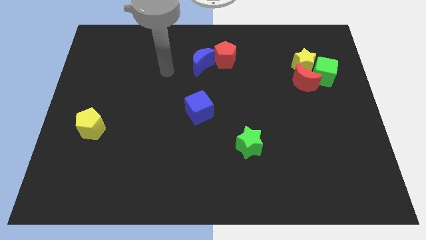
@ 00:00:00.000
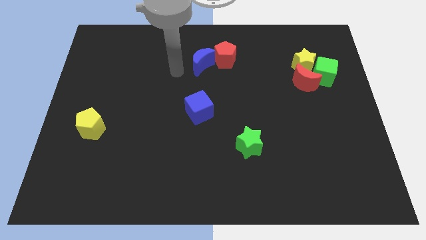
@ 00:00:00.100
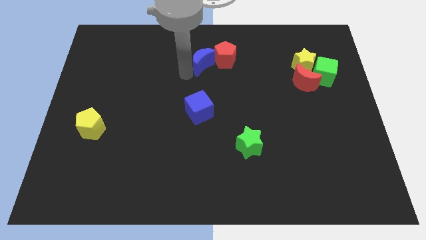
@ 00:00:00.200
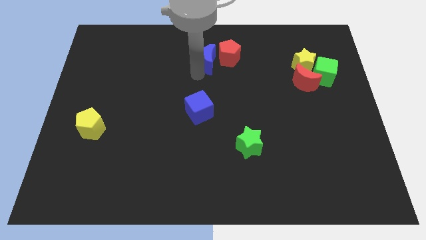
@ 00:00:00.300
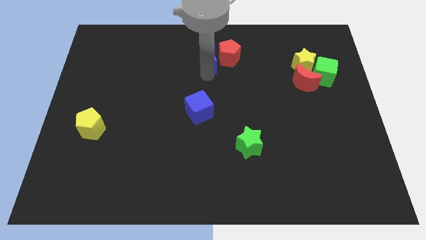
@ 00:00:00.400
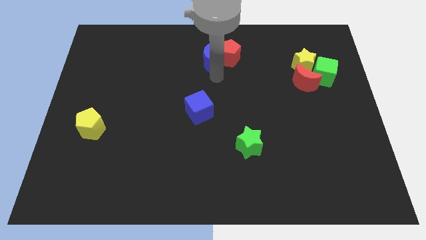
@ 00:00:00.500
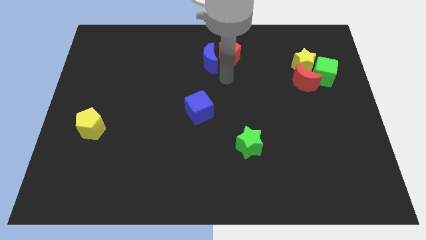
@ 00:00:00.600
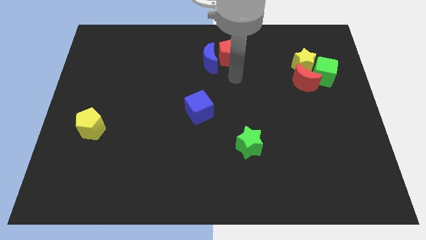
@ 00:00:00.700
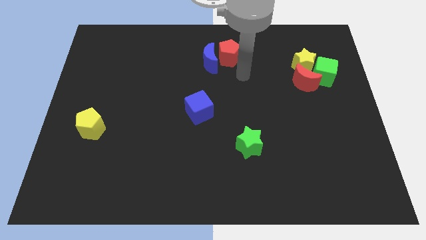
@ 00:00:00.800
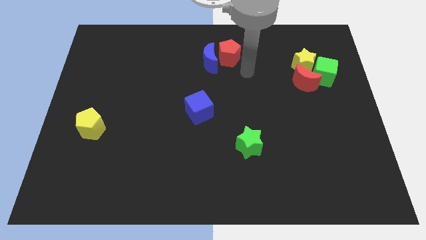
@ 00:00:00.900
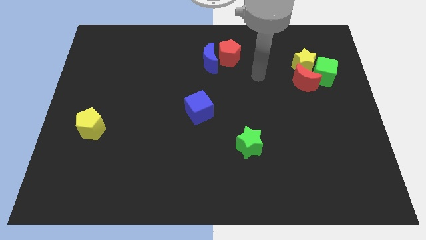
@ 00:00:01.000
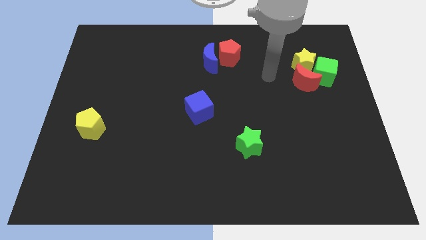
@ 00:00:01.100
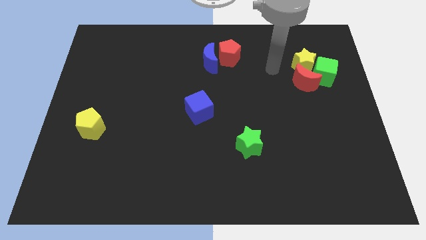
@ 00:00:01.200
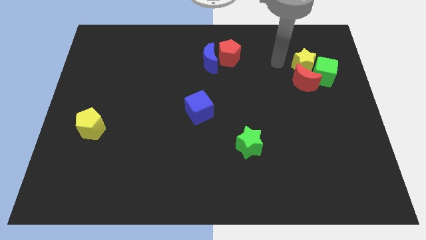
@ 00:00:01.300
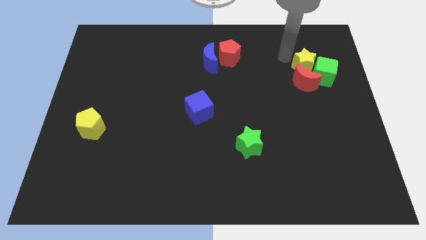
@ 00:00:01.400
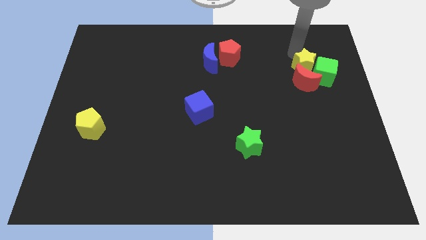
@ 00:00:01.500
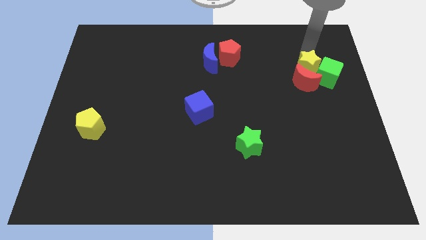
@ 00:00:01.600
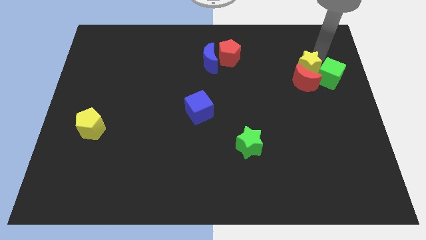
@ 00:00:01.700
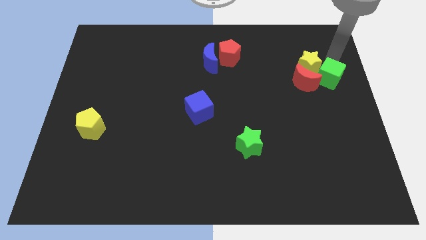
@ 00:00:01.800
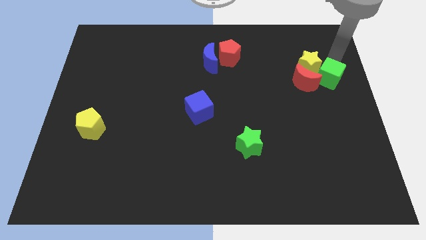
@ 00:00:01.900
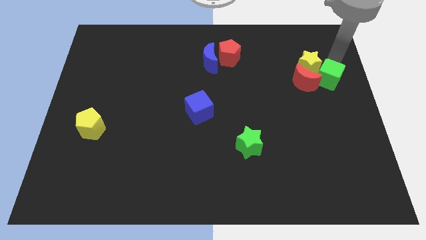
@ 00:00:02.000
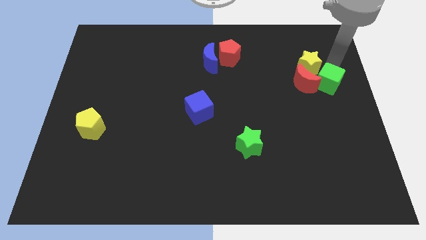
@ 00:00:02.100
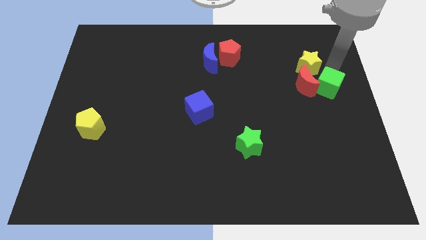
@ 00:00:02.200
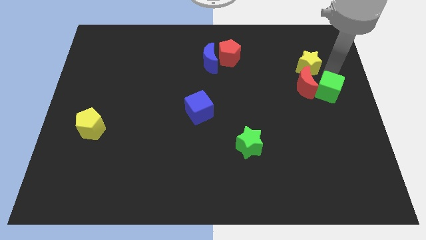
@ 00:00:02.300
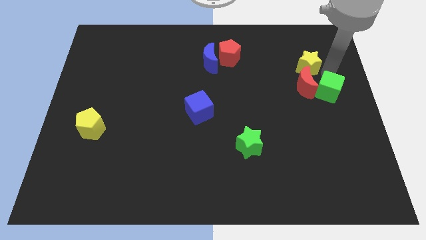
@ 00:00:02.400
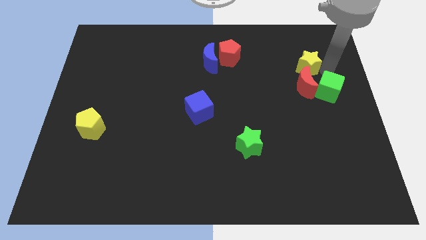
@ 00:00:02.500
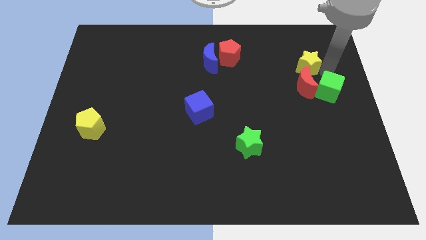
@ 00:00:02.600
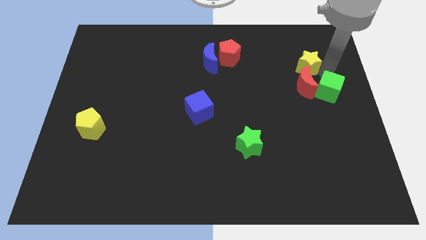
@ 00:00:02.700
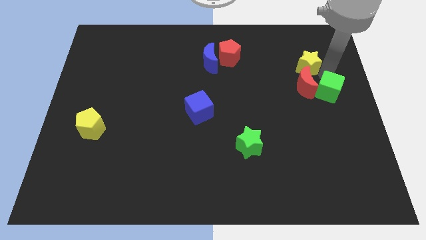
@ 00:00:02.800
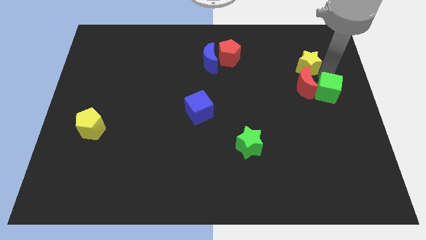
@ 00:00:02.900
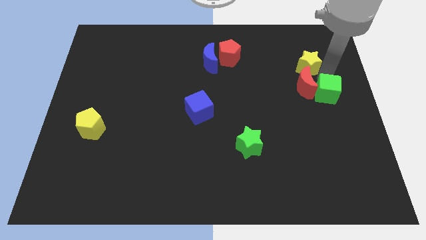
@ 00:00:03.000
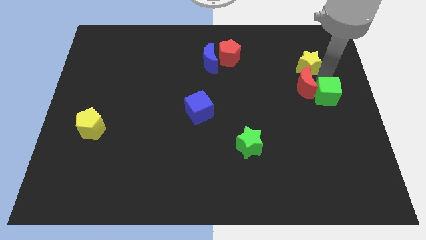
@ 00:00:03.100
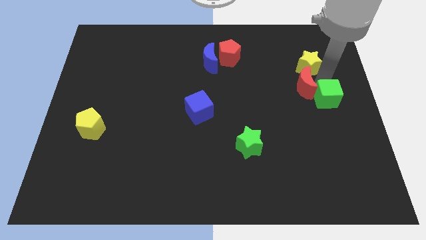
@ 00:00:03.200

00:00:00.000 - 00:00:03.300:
slightly move the green cube down

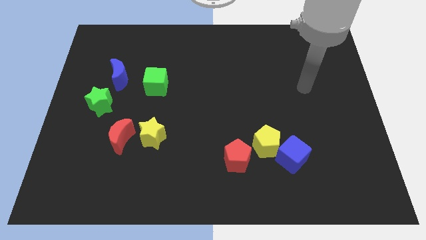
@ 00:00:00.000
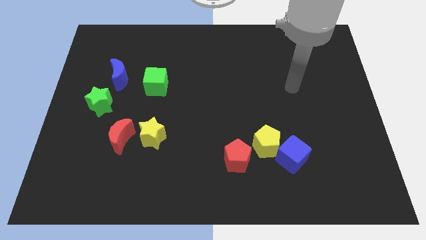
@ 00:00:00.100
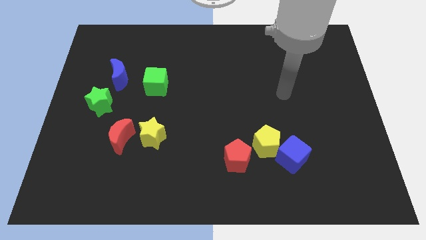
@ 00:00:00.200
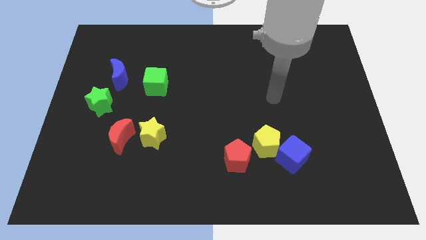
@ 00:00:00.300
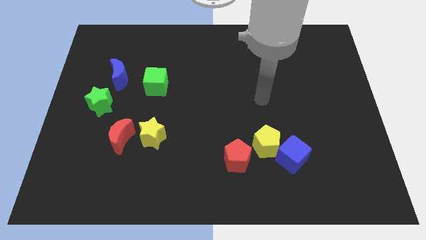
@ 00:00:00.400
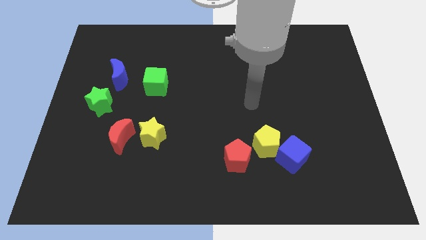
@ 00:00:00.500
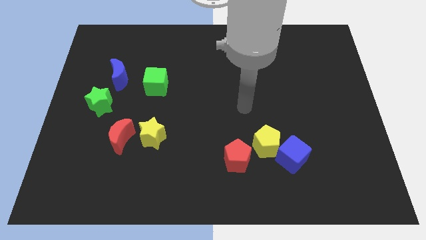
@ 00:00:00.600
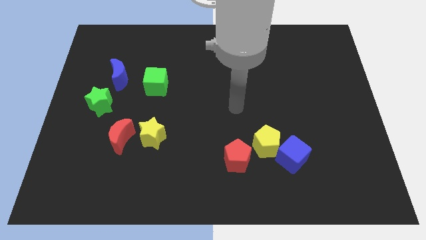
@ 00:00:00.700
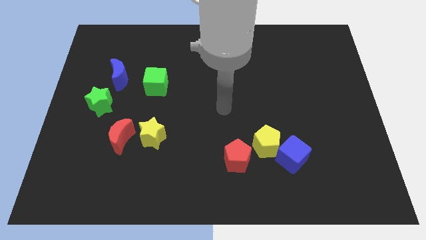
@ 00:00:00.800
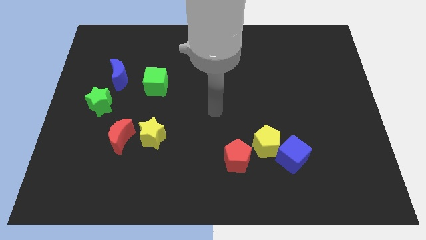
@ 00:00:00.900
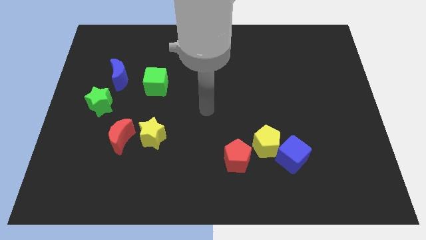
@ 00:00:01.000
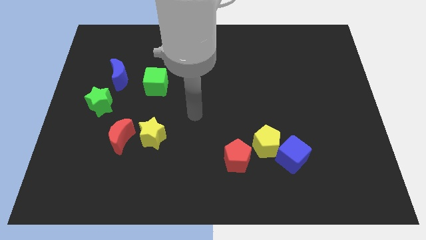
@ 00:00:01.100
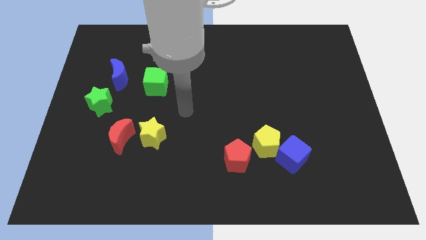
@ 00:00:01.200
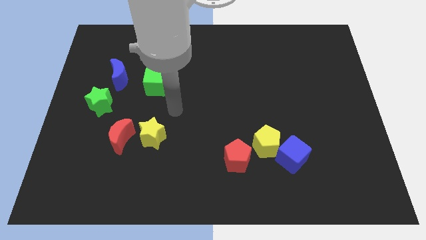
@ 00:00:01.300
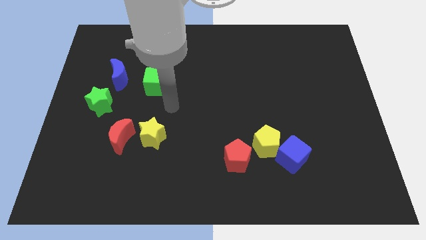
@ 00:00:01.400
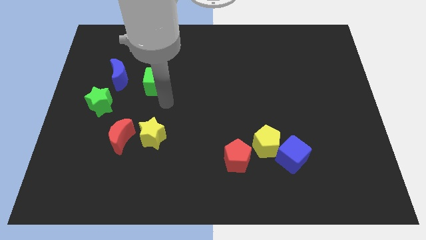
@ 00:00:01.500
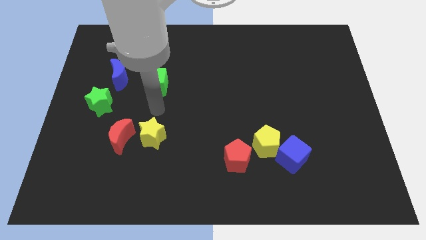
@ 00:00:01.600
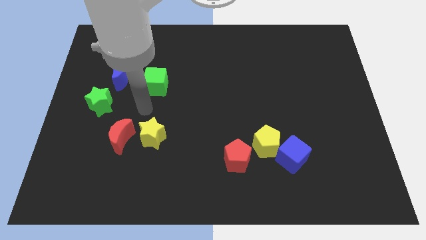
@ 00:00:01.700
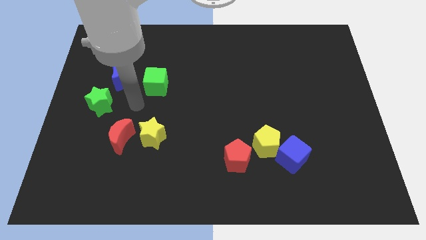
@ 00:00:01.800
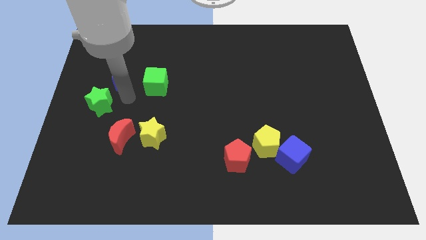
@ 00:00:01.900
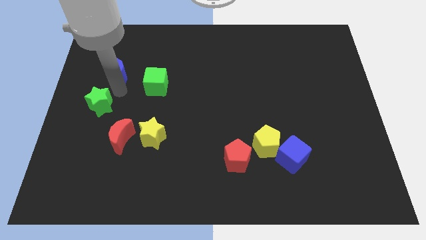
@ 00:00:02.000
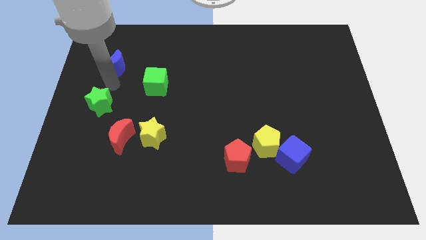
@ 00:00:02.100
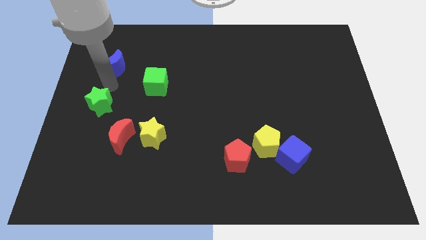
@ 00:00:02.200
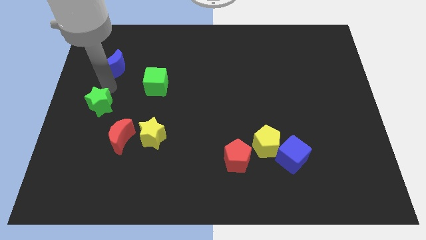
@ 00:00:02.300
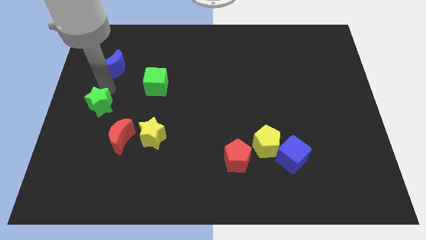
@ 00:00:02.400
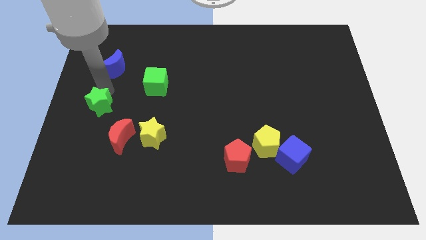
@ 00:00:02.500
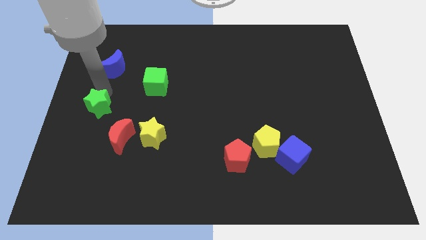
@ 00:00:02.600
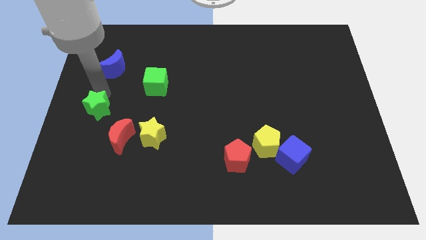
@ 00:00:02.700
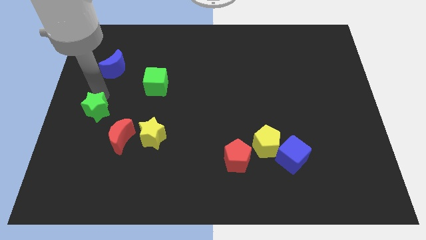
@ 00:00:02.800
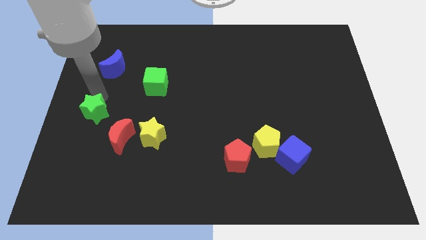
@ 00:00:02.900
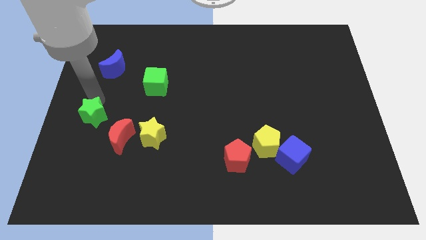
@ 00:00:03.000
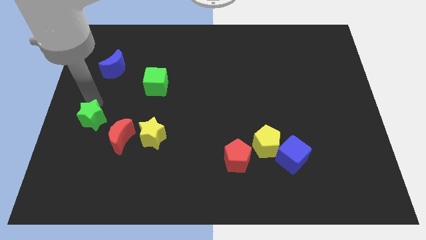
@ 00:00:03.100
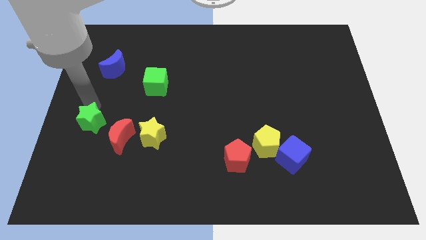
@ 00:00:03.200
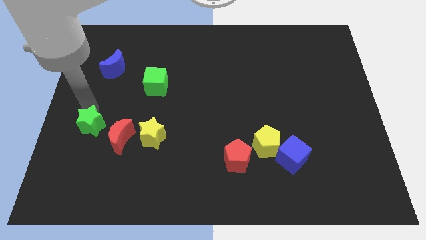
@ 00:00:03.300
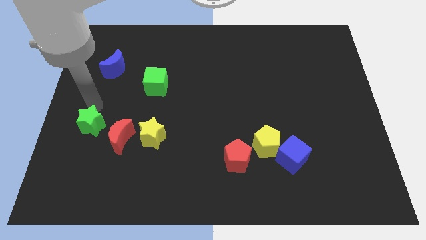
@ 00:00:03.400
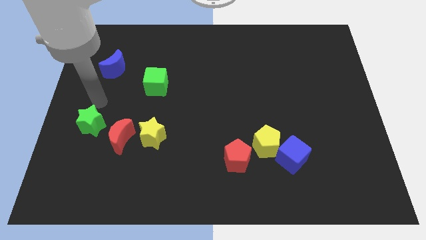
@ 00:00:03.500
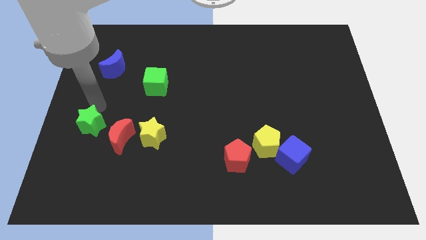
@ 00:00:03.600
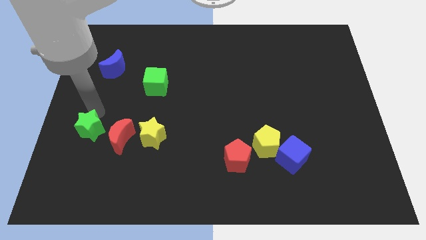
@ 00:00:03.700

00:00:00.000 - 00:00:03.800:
move the green star somewhat down

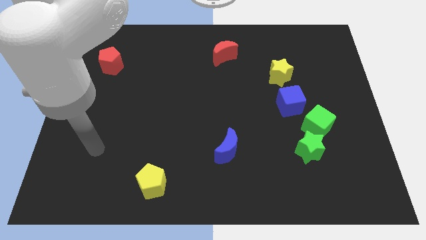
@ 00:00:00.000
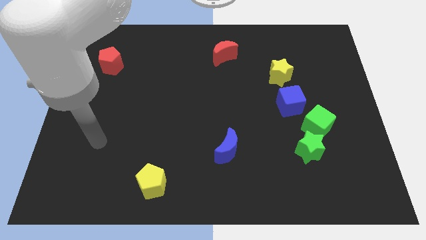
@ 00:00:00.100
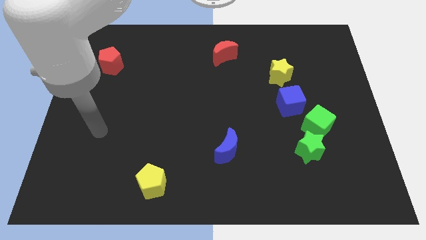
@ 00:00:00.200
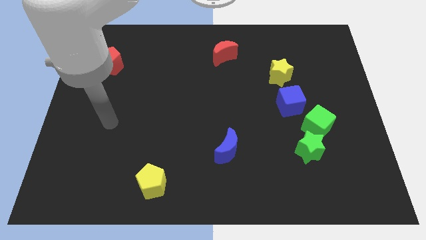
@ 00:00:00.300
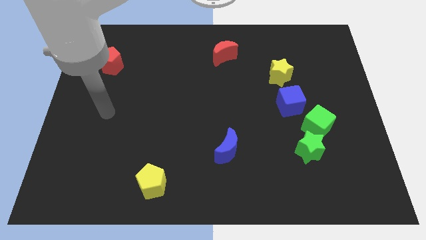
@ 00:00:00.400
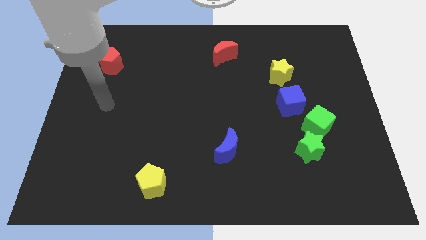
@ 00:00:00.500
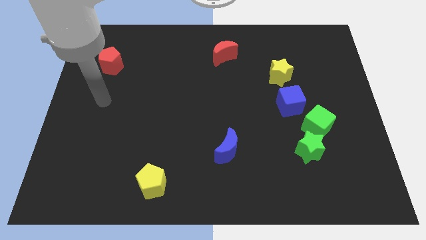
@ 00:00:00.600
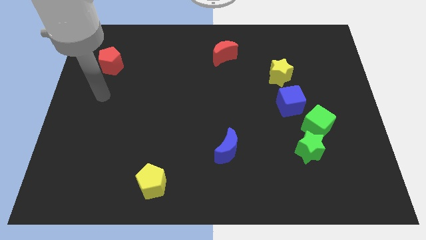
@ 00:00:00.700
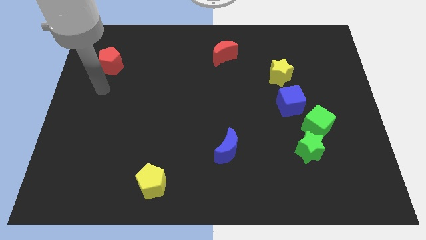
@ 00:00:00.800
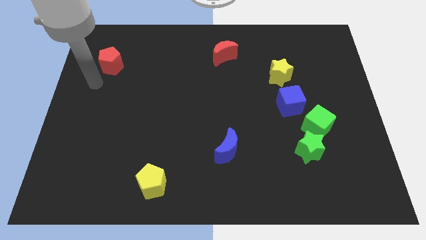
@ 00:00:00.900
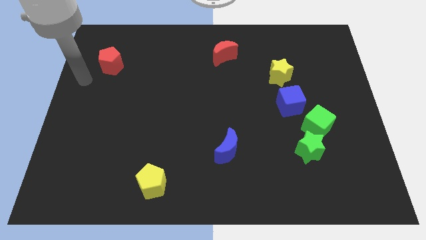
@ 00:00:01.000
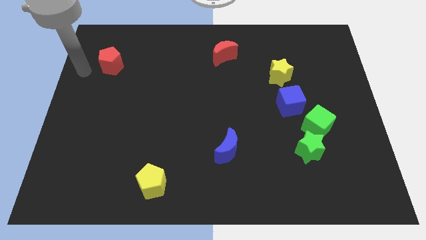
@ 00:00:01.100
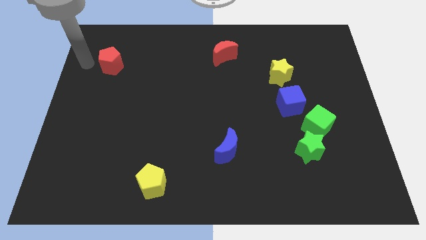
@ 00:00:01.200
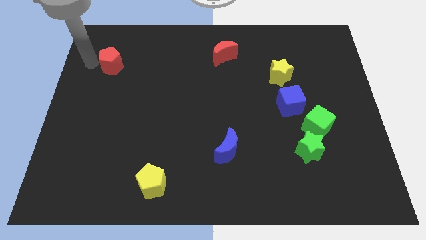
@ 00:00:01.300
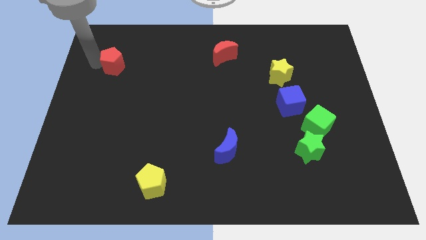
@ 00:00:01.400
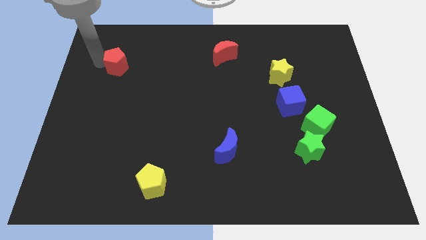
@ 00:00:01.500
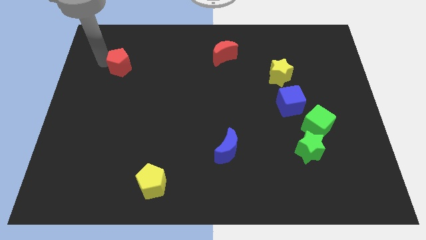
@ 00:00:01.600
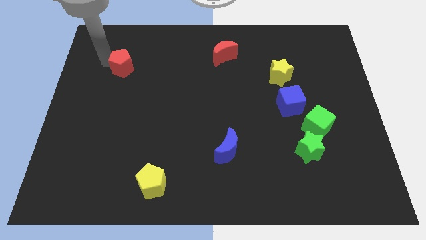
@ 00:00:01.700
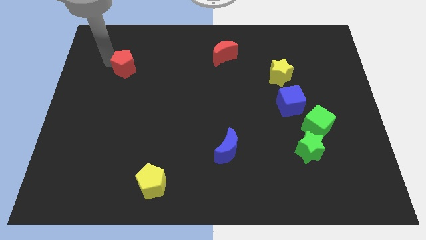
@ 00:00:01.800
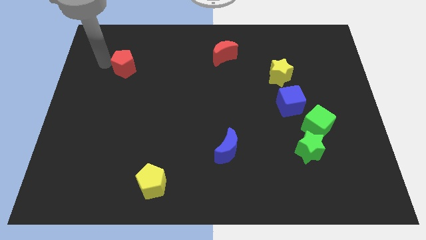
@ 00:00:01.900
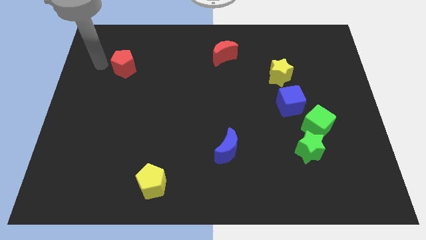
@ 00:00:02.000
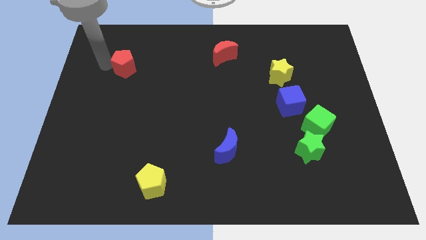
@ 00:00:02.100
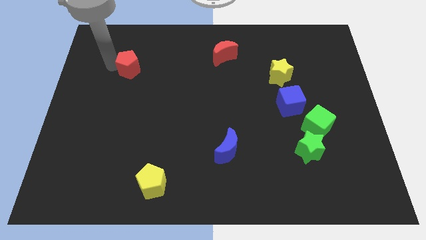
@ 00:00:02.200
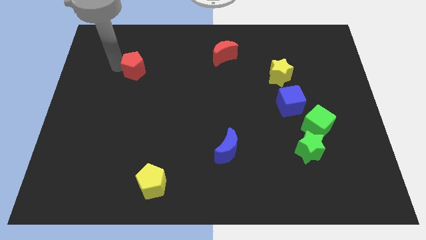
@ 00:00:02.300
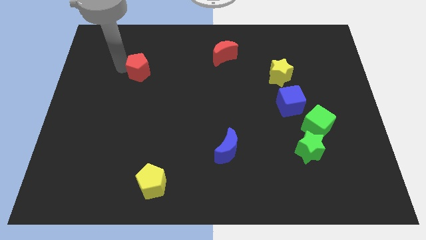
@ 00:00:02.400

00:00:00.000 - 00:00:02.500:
slide the red pentagon right a bit
